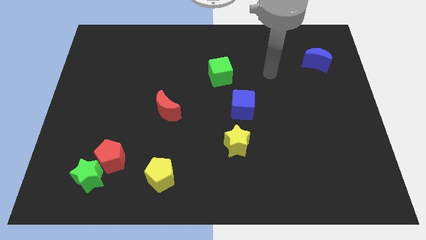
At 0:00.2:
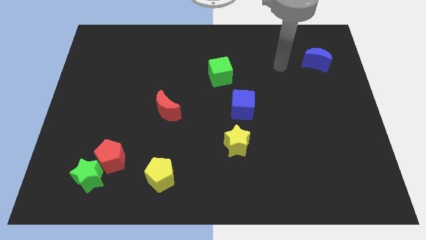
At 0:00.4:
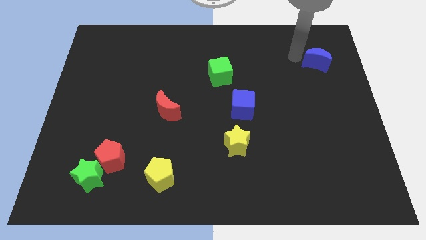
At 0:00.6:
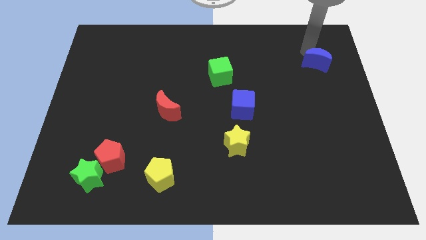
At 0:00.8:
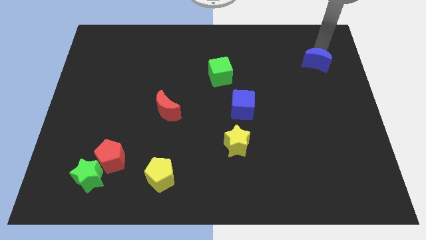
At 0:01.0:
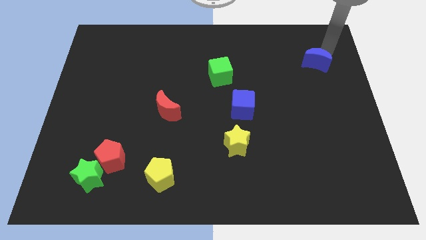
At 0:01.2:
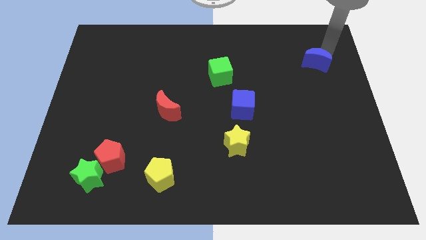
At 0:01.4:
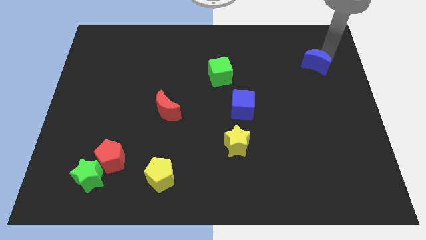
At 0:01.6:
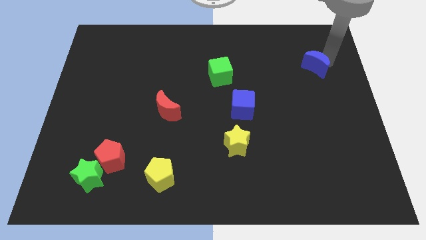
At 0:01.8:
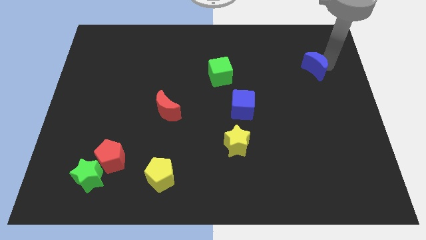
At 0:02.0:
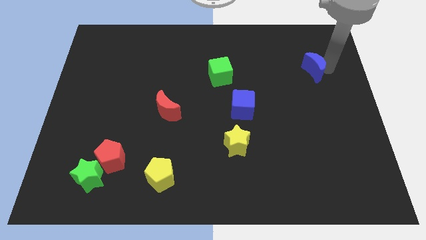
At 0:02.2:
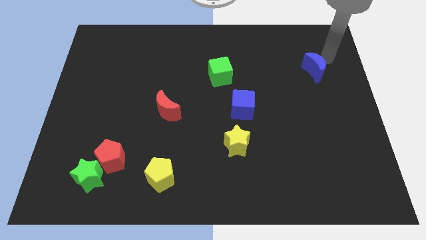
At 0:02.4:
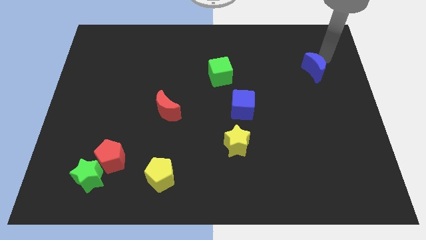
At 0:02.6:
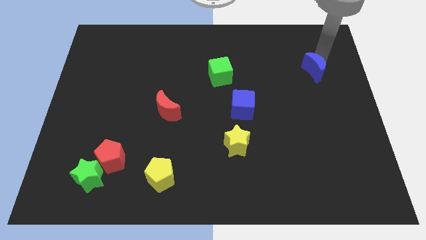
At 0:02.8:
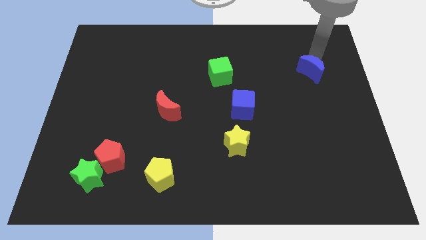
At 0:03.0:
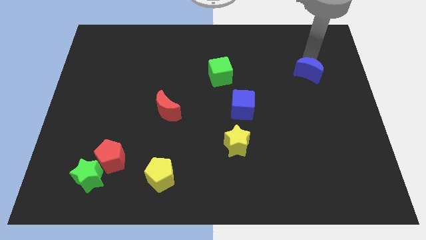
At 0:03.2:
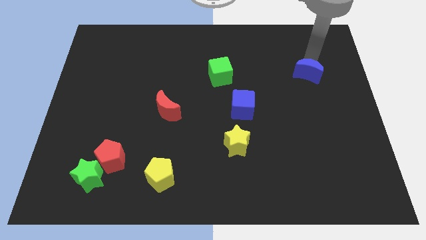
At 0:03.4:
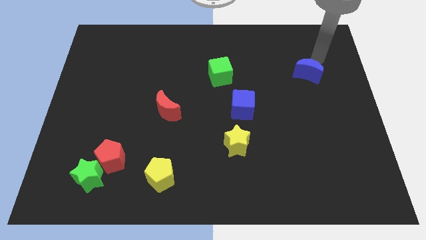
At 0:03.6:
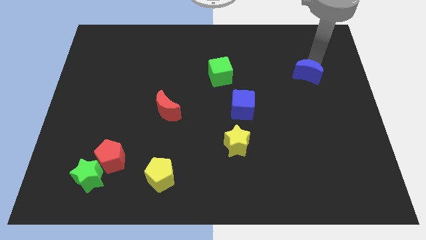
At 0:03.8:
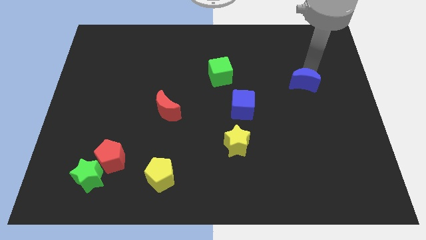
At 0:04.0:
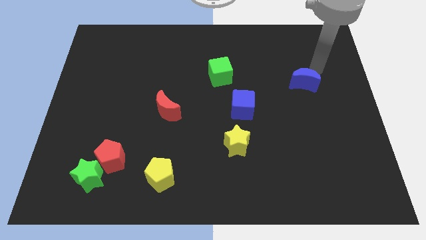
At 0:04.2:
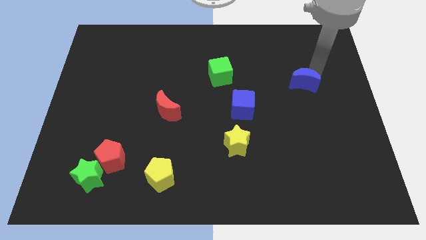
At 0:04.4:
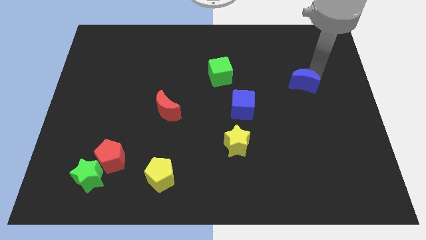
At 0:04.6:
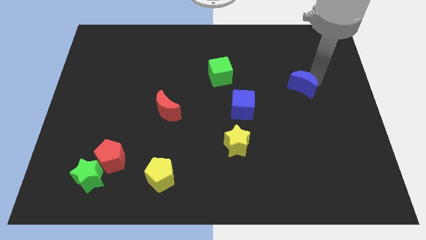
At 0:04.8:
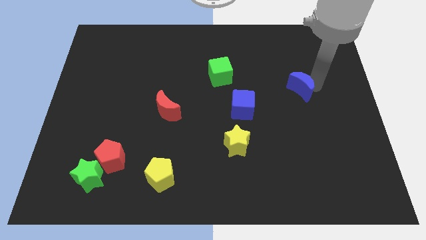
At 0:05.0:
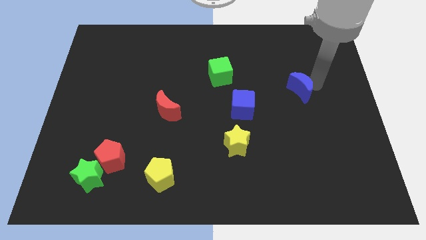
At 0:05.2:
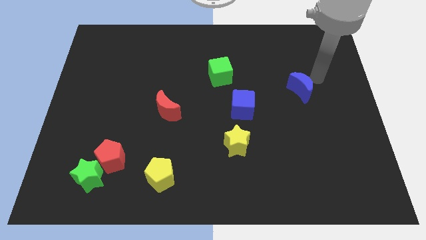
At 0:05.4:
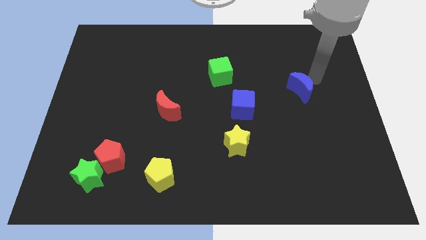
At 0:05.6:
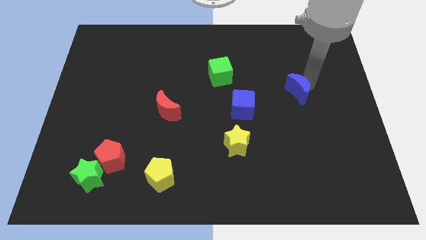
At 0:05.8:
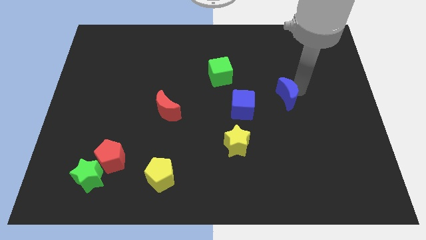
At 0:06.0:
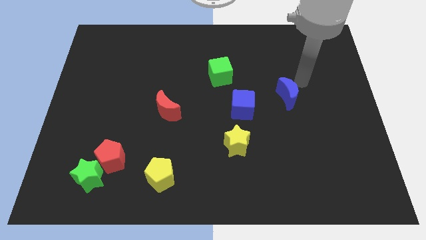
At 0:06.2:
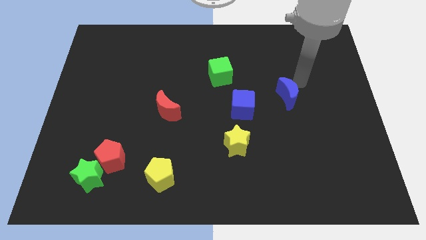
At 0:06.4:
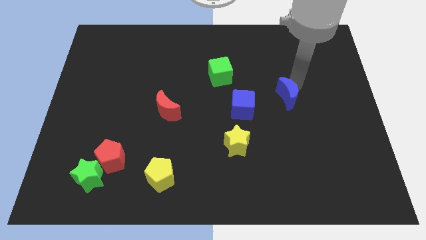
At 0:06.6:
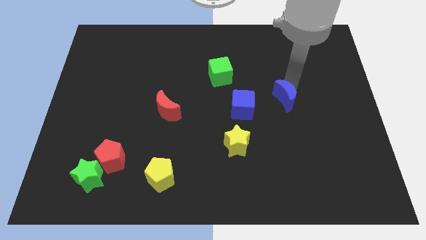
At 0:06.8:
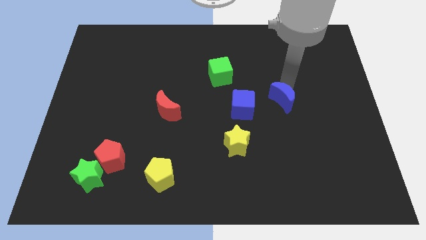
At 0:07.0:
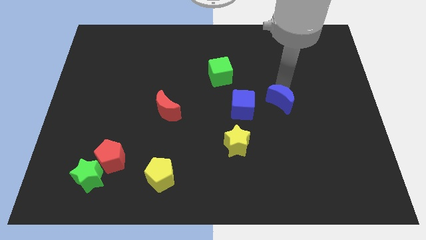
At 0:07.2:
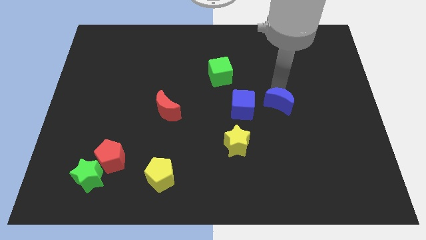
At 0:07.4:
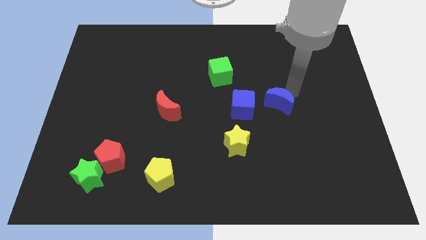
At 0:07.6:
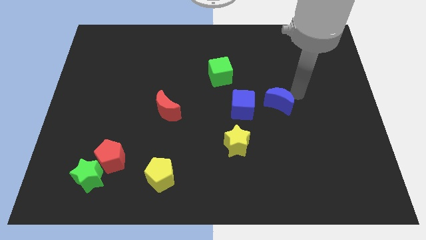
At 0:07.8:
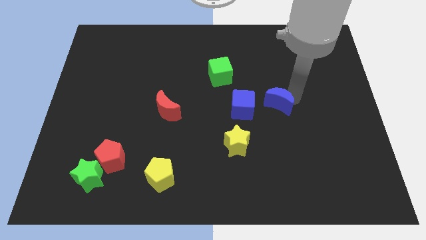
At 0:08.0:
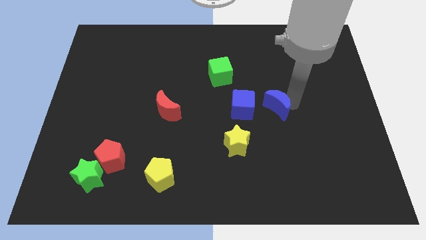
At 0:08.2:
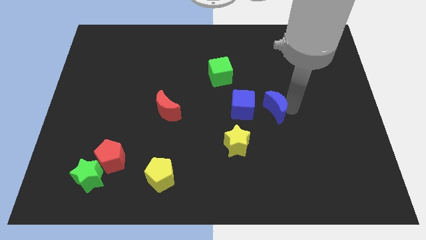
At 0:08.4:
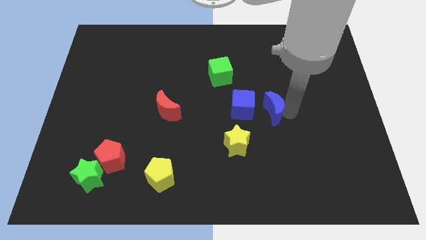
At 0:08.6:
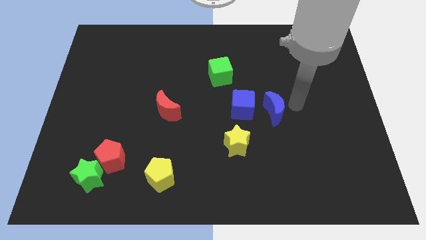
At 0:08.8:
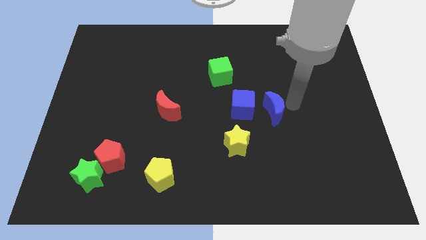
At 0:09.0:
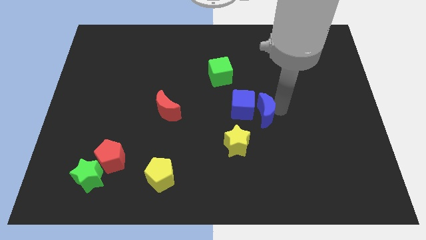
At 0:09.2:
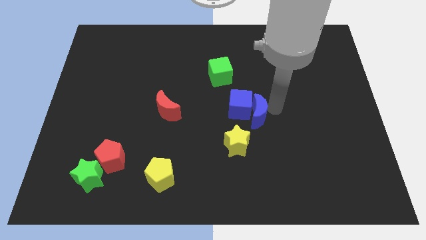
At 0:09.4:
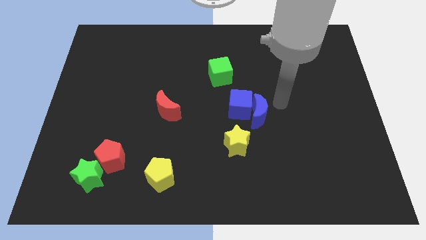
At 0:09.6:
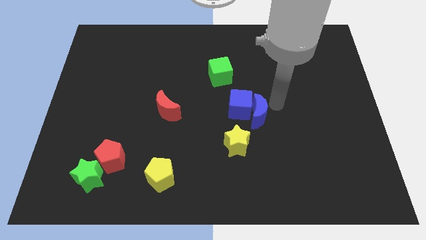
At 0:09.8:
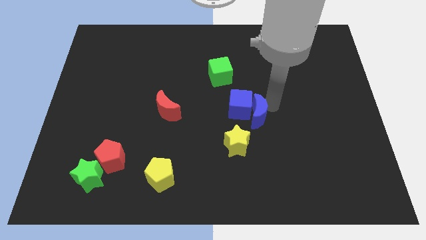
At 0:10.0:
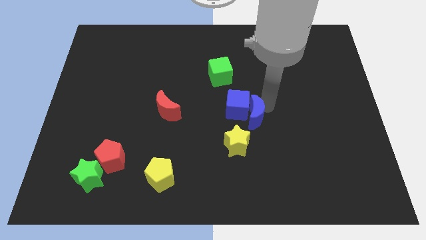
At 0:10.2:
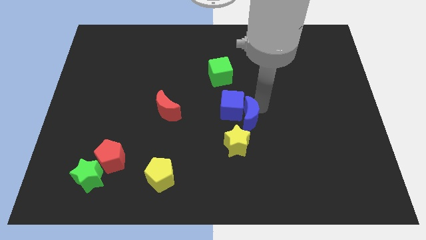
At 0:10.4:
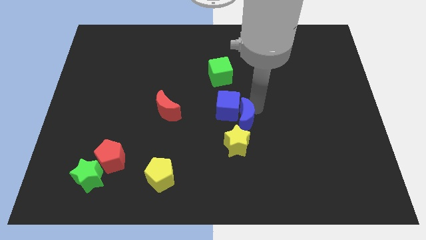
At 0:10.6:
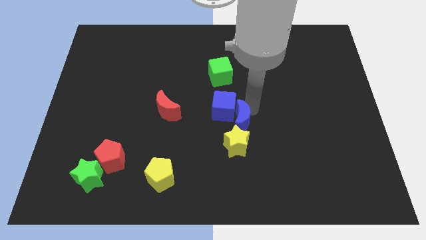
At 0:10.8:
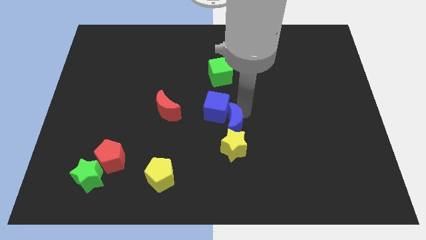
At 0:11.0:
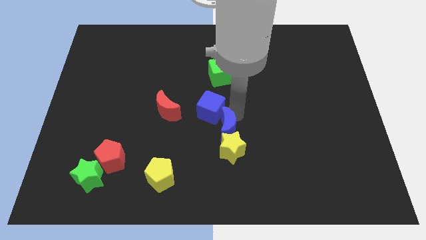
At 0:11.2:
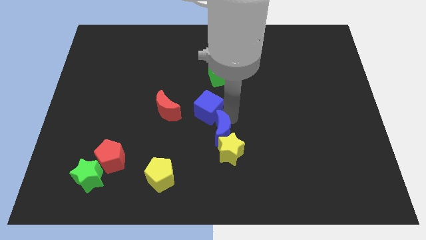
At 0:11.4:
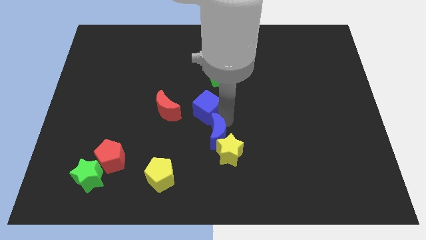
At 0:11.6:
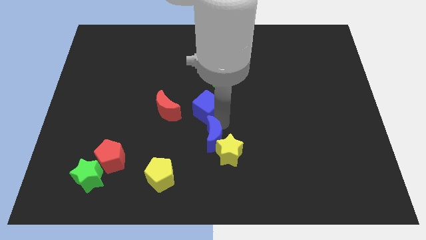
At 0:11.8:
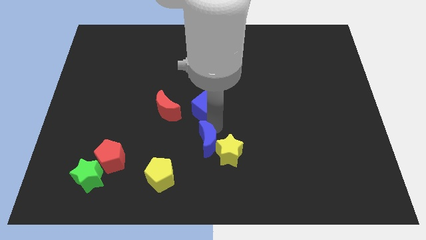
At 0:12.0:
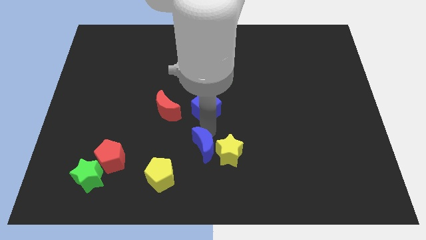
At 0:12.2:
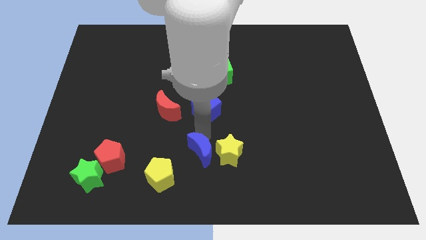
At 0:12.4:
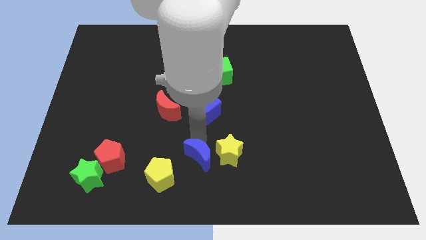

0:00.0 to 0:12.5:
move the blue moon just right of the yellow pentagon
